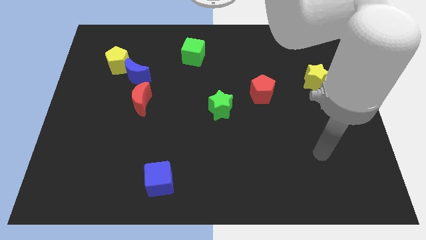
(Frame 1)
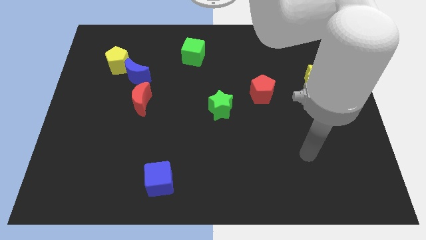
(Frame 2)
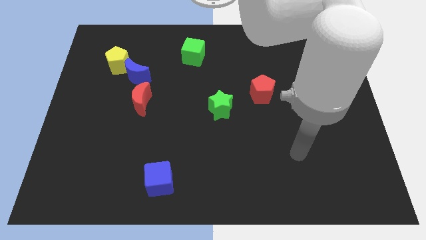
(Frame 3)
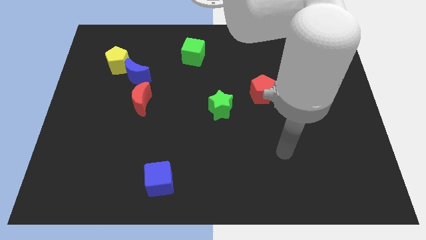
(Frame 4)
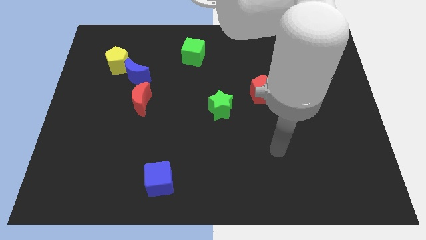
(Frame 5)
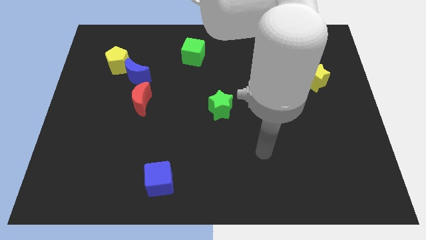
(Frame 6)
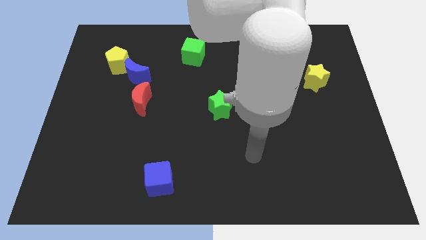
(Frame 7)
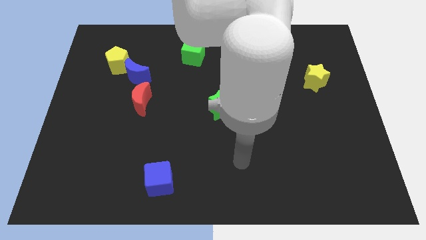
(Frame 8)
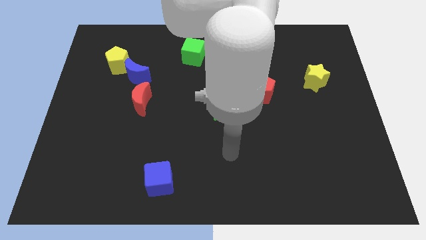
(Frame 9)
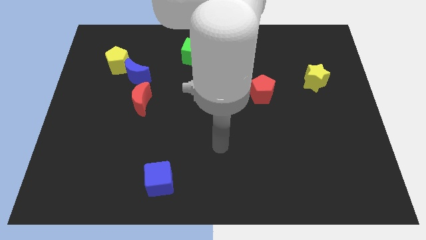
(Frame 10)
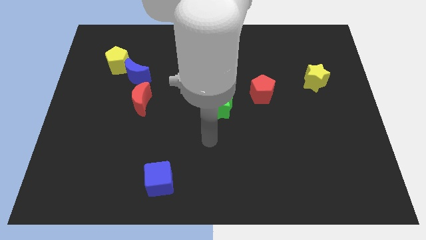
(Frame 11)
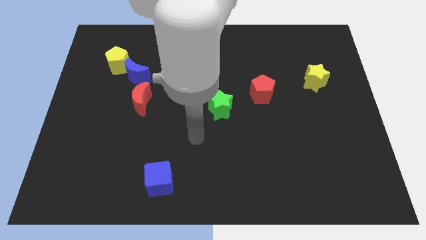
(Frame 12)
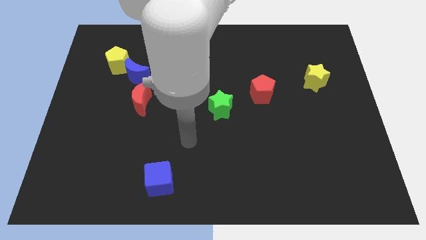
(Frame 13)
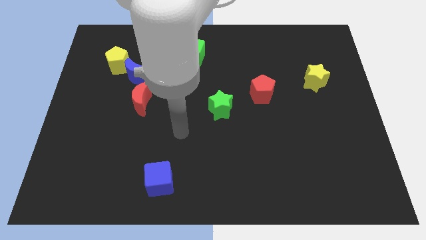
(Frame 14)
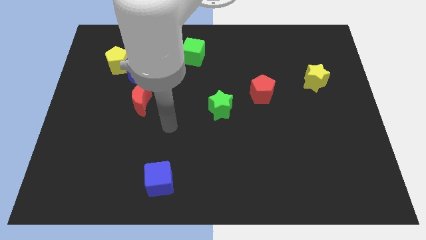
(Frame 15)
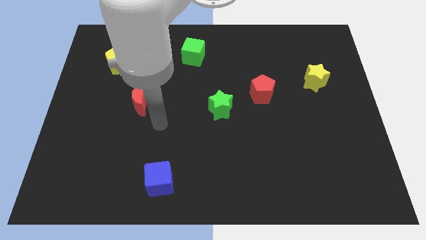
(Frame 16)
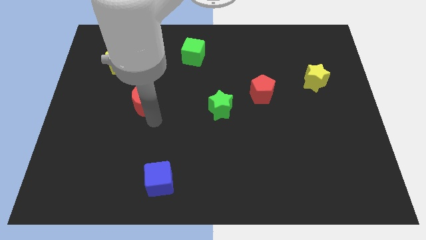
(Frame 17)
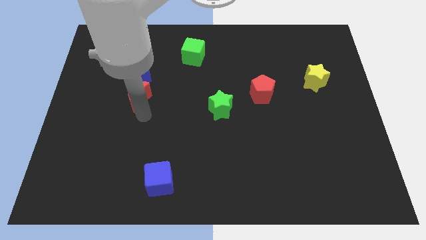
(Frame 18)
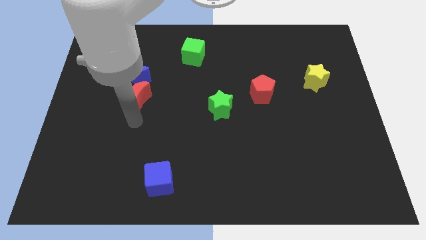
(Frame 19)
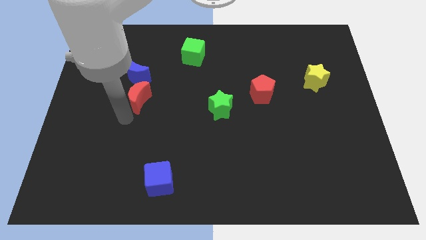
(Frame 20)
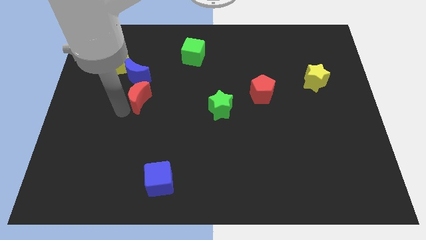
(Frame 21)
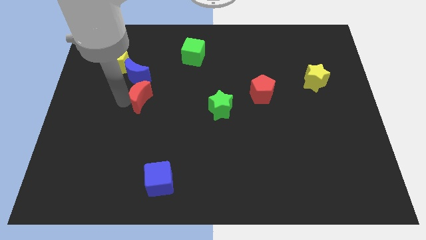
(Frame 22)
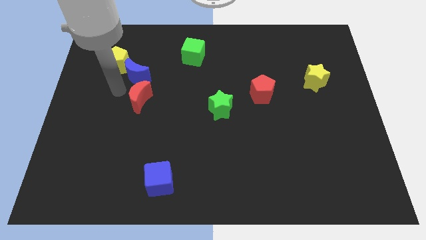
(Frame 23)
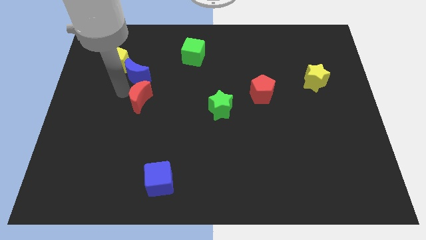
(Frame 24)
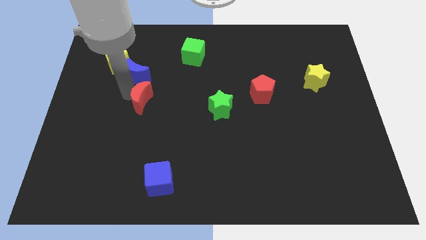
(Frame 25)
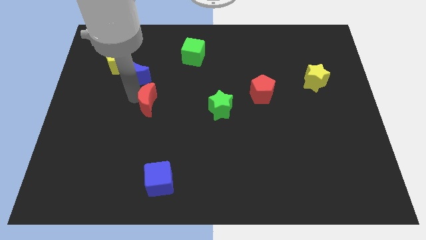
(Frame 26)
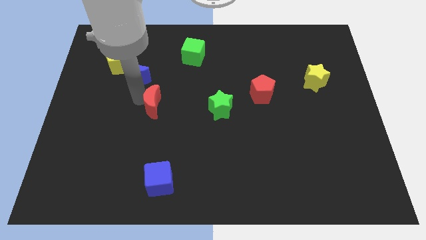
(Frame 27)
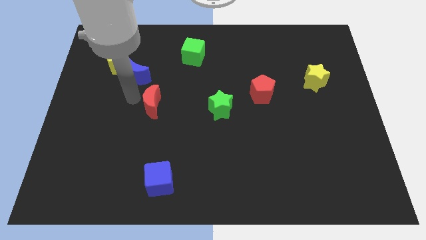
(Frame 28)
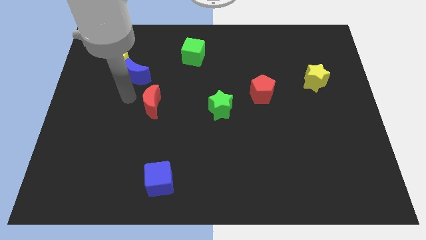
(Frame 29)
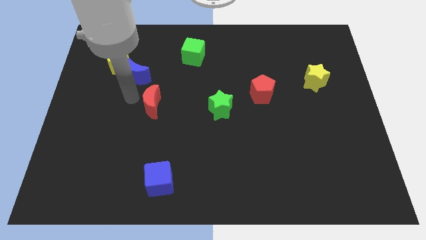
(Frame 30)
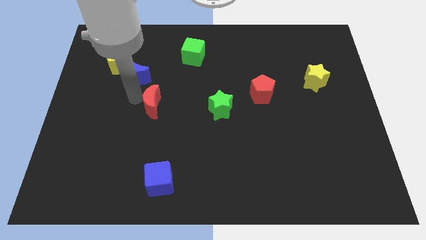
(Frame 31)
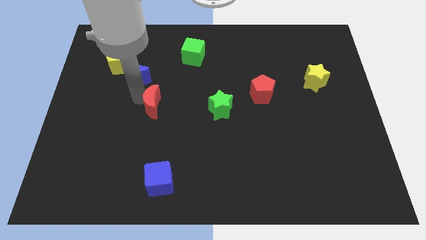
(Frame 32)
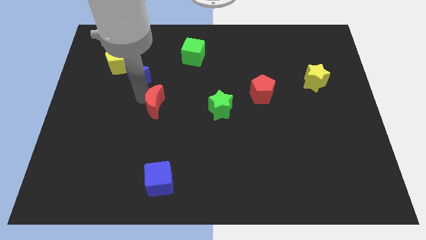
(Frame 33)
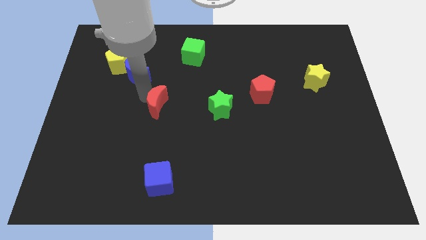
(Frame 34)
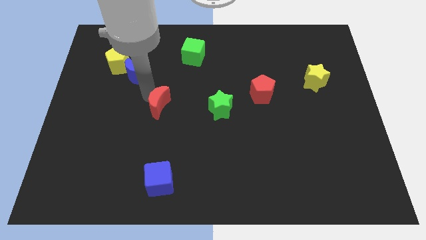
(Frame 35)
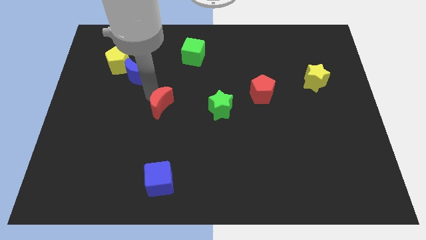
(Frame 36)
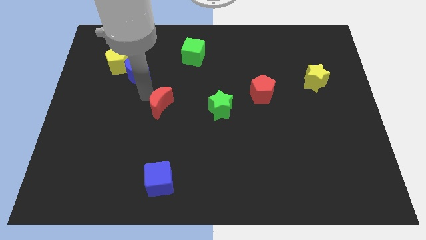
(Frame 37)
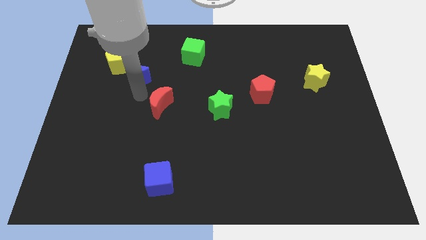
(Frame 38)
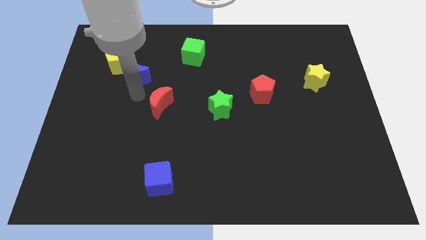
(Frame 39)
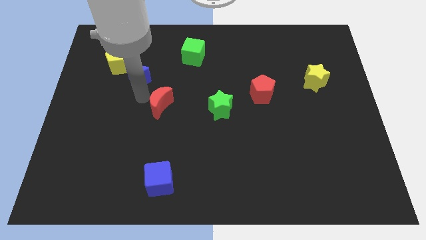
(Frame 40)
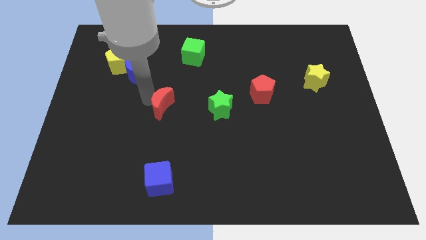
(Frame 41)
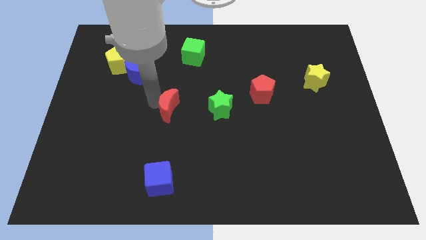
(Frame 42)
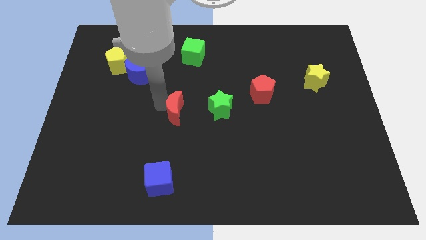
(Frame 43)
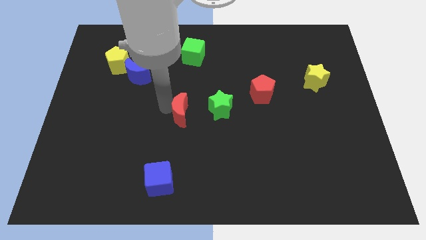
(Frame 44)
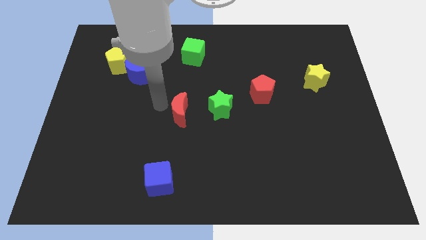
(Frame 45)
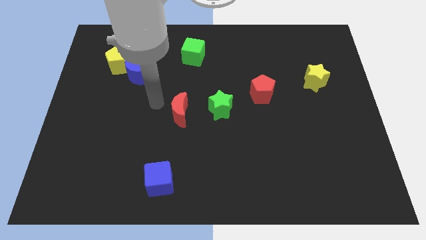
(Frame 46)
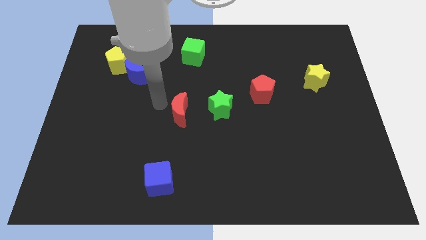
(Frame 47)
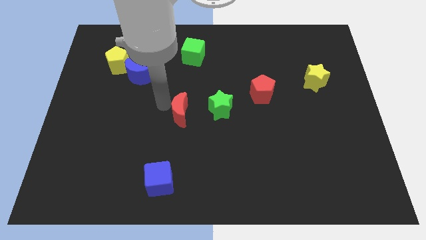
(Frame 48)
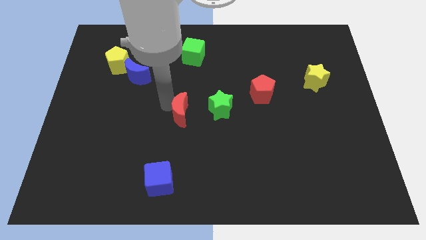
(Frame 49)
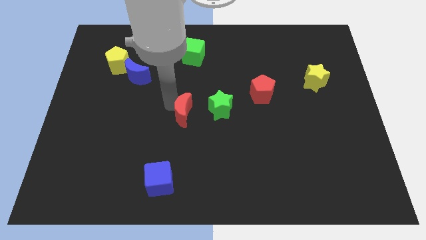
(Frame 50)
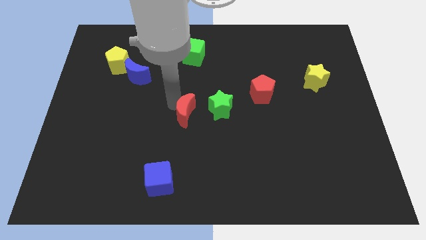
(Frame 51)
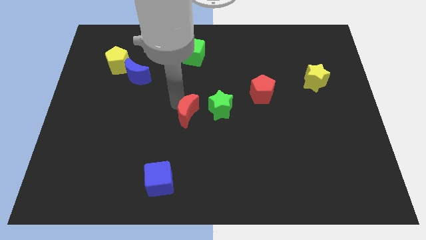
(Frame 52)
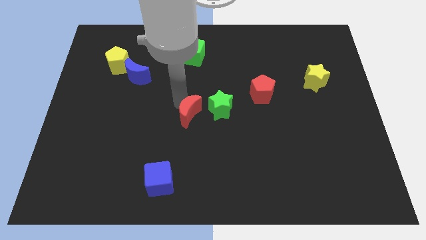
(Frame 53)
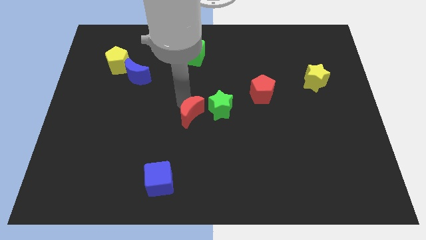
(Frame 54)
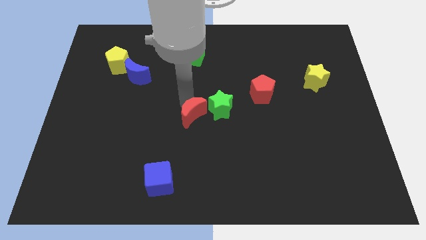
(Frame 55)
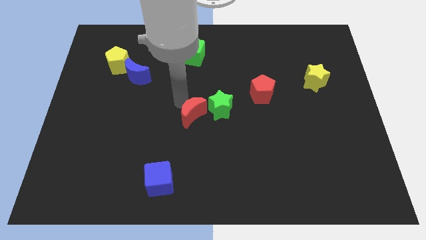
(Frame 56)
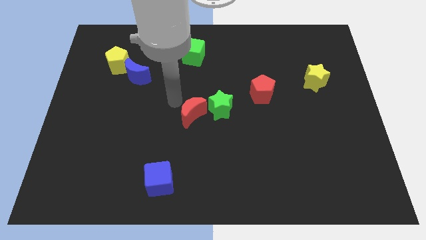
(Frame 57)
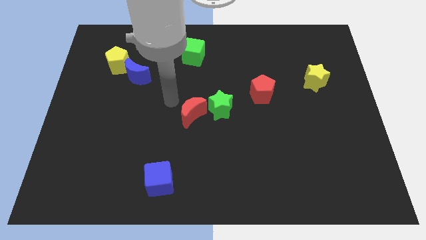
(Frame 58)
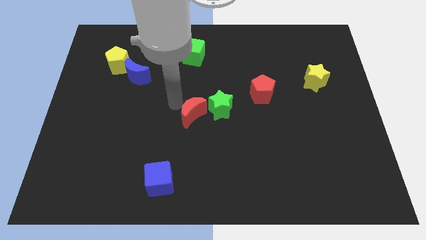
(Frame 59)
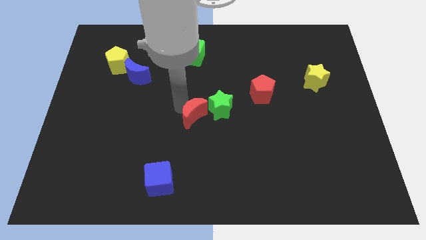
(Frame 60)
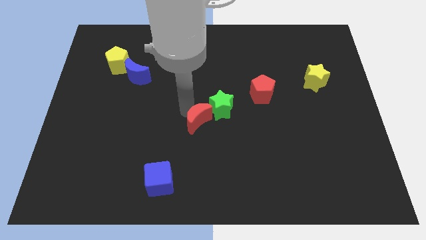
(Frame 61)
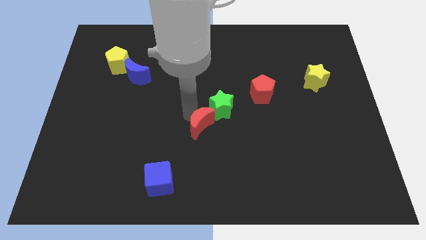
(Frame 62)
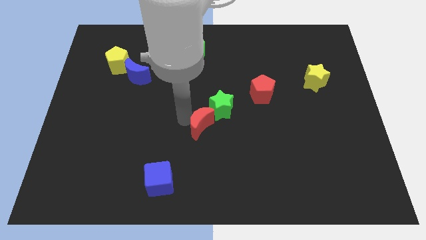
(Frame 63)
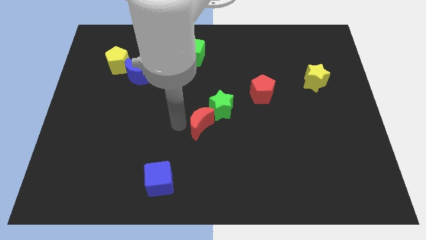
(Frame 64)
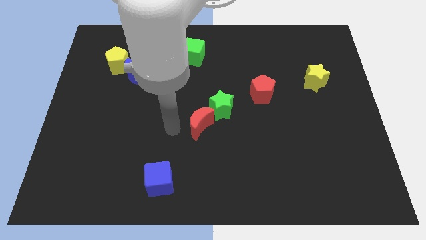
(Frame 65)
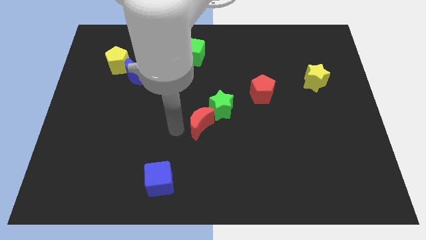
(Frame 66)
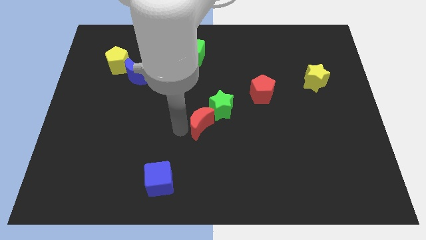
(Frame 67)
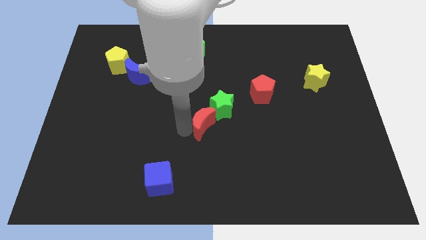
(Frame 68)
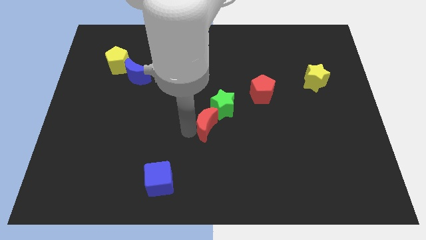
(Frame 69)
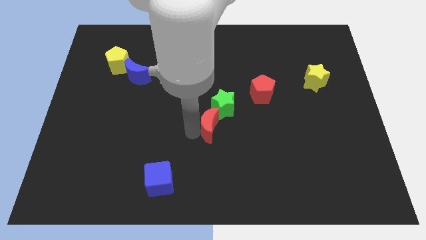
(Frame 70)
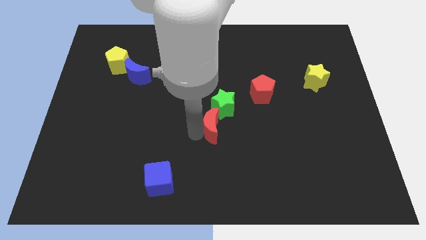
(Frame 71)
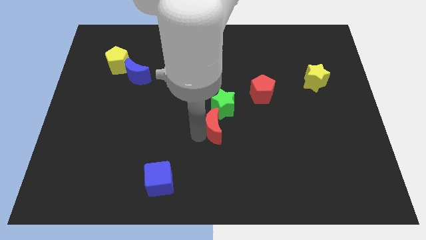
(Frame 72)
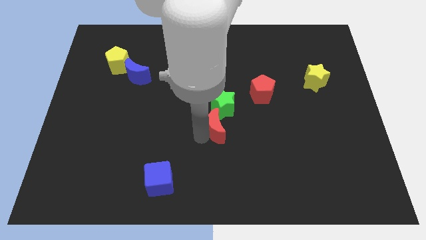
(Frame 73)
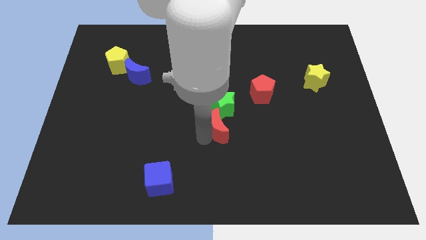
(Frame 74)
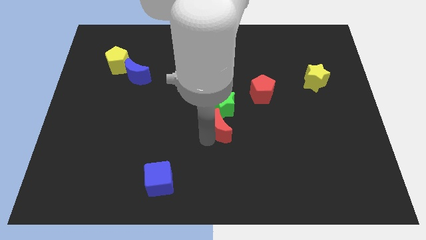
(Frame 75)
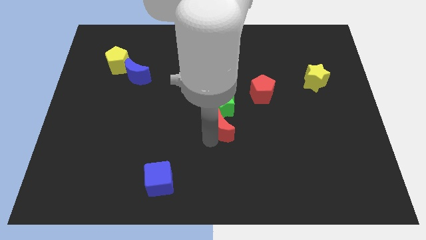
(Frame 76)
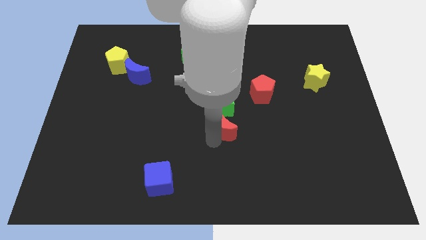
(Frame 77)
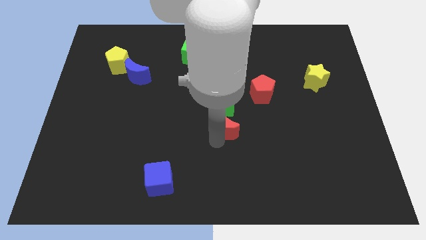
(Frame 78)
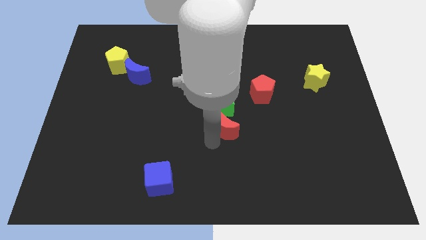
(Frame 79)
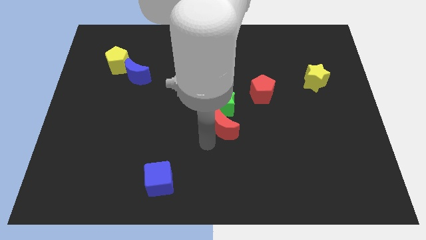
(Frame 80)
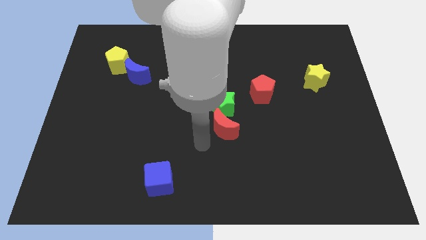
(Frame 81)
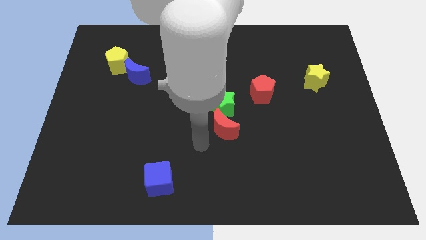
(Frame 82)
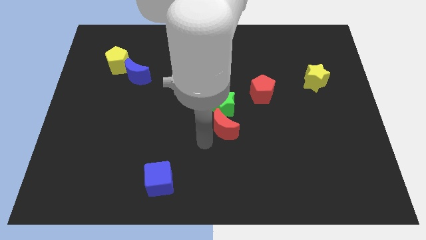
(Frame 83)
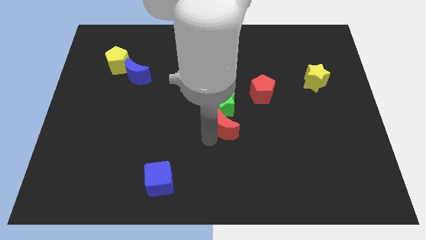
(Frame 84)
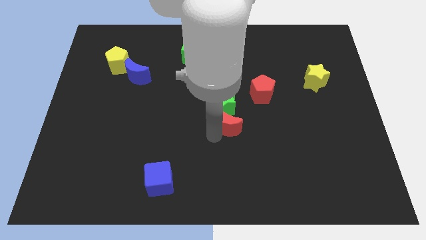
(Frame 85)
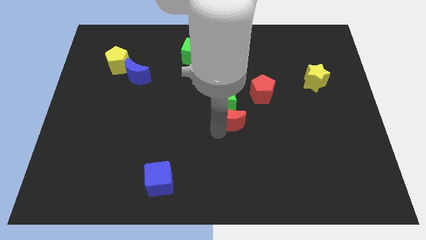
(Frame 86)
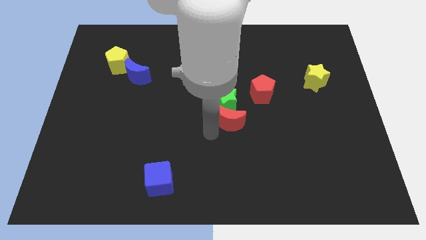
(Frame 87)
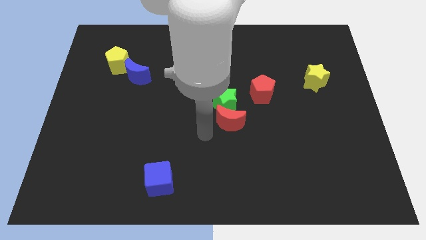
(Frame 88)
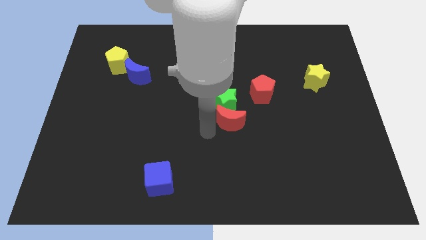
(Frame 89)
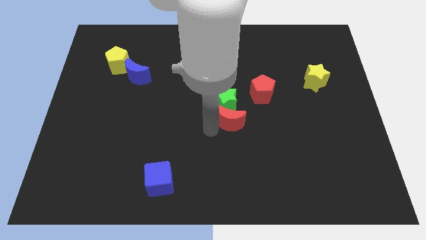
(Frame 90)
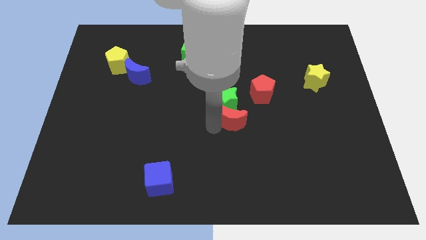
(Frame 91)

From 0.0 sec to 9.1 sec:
move the red moon to the right
